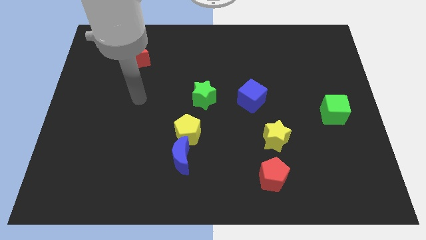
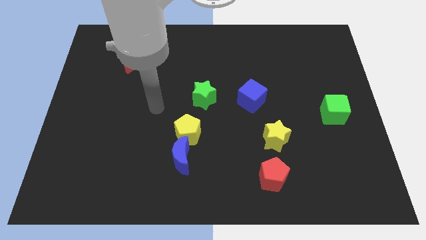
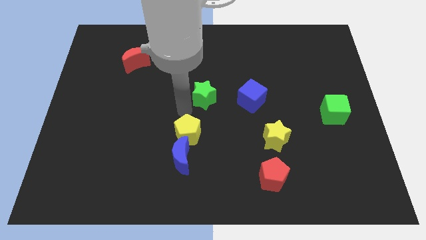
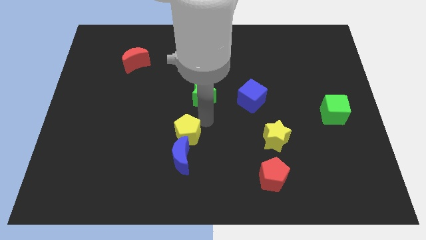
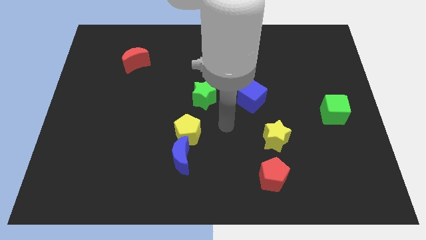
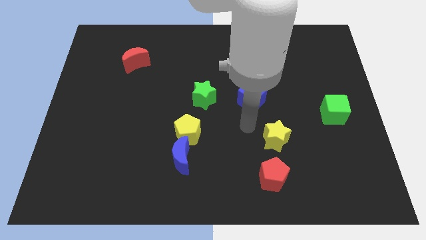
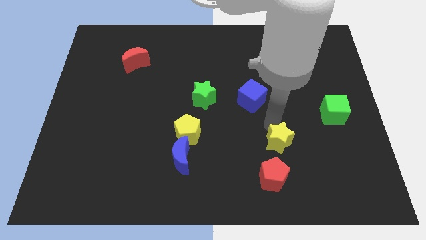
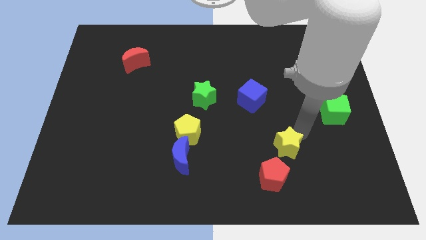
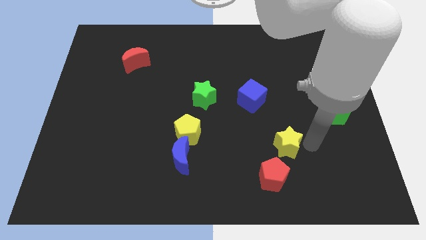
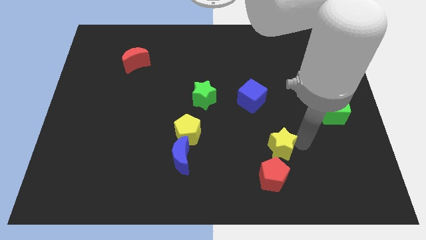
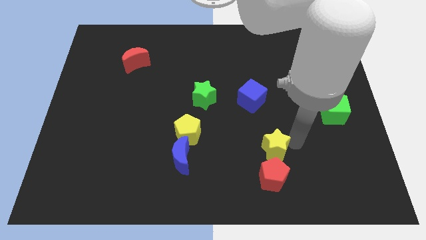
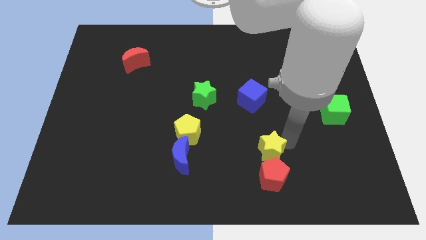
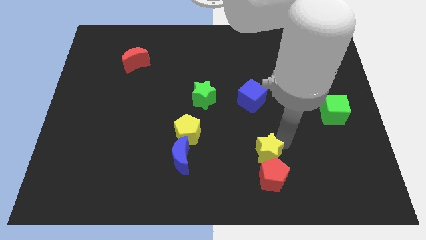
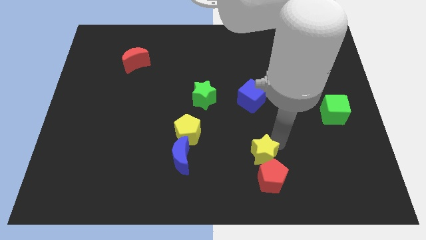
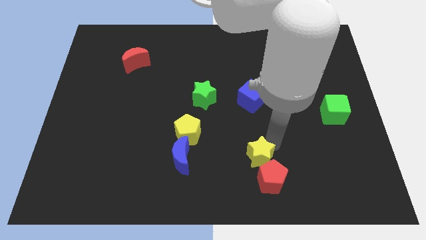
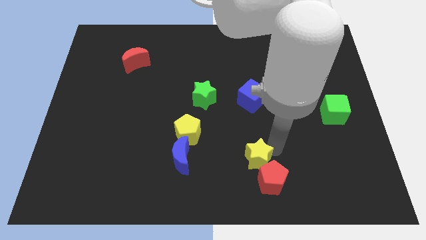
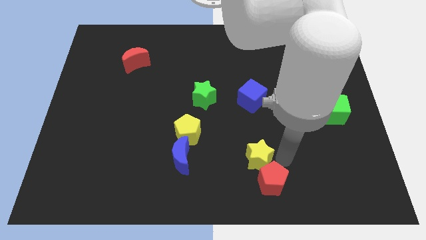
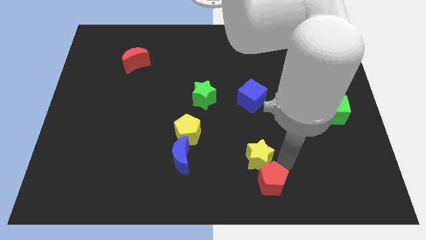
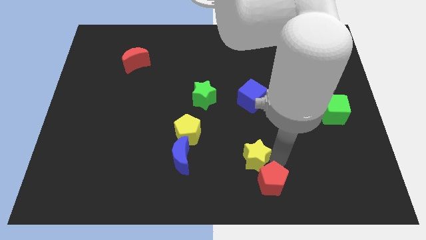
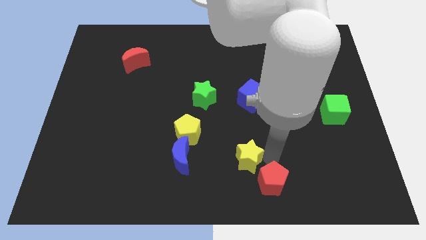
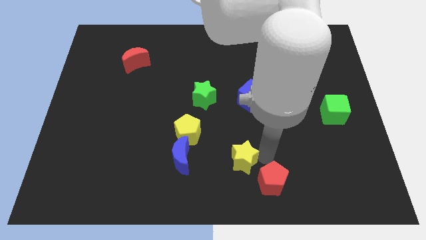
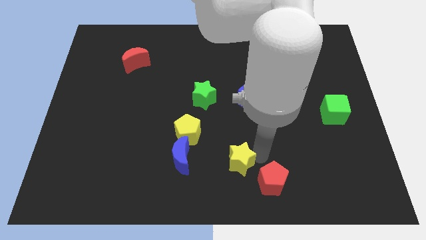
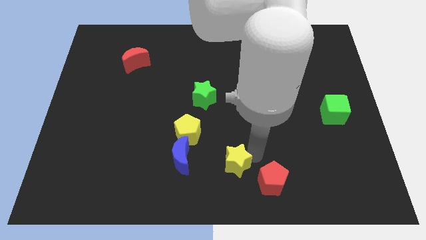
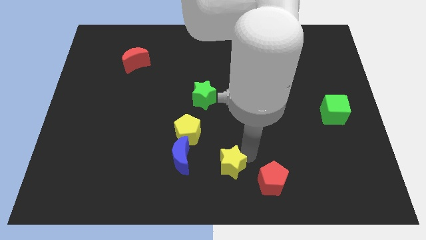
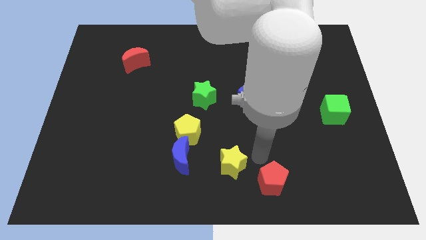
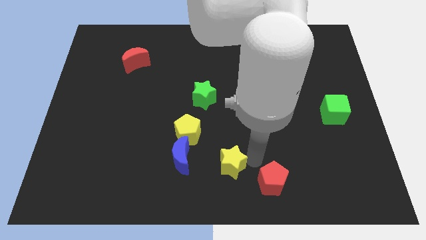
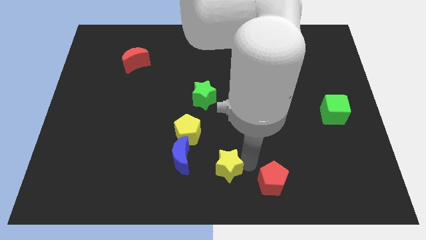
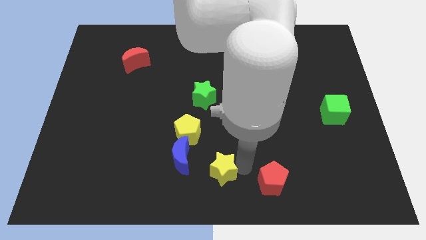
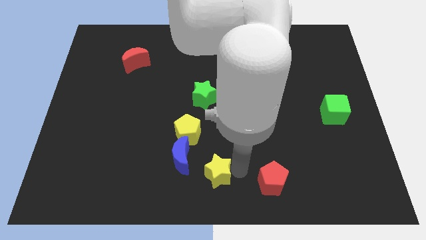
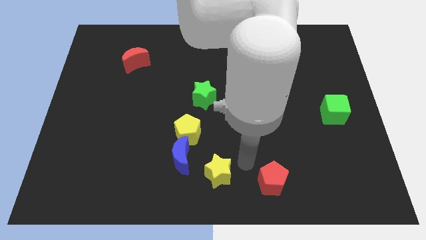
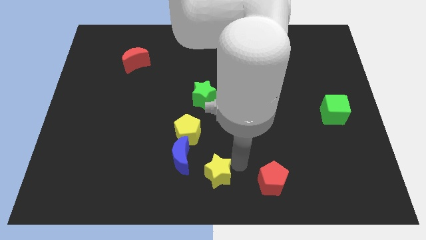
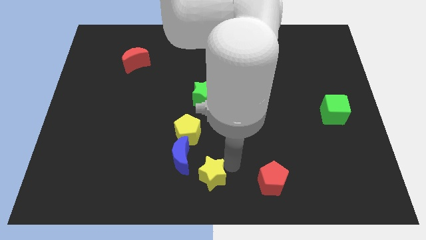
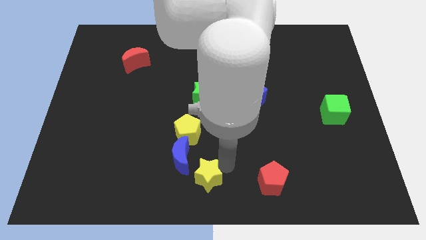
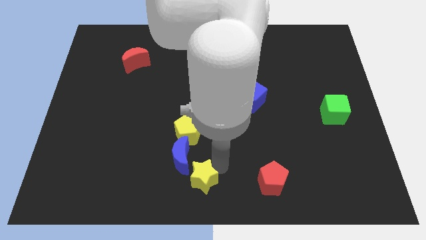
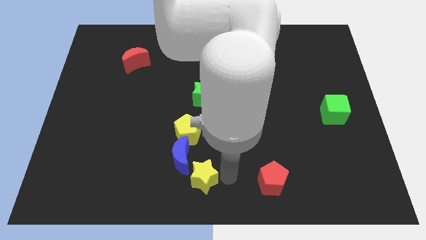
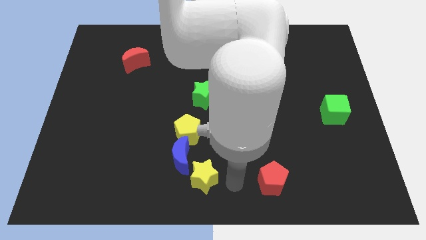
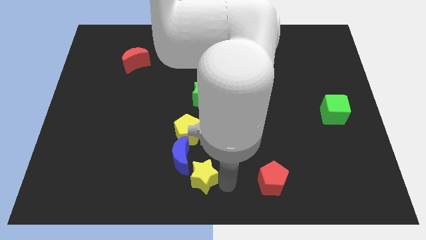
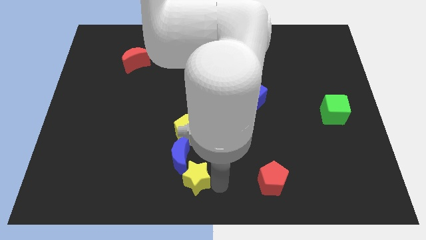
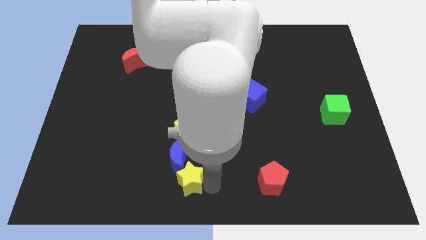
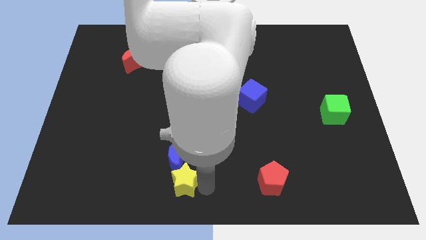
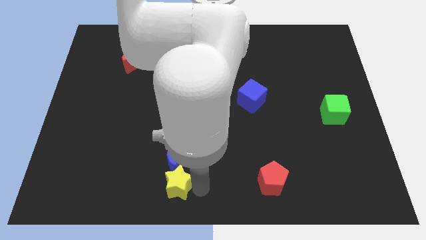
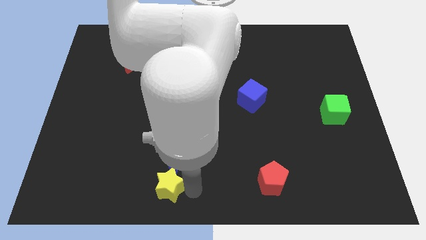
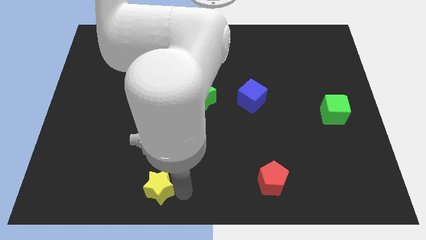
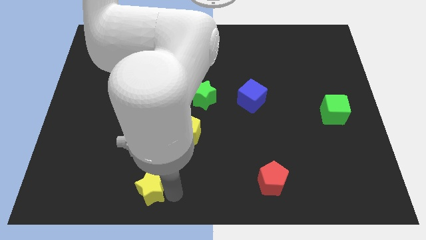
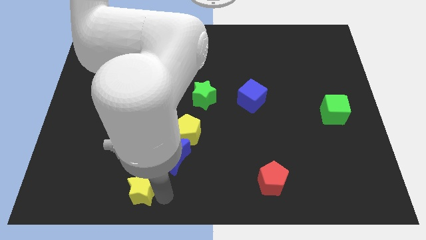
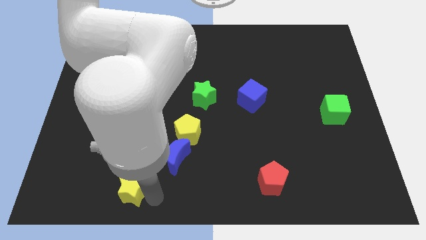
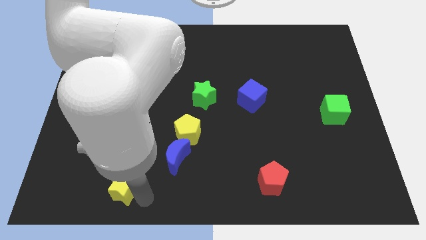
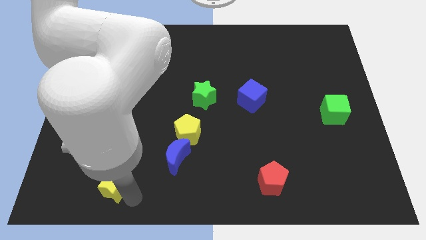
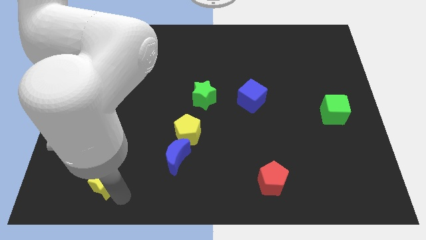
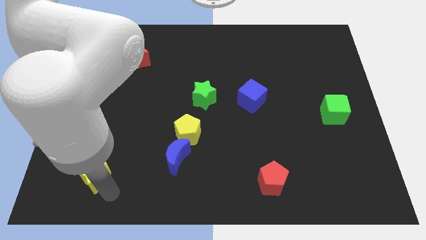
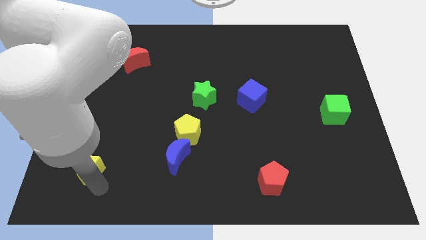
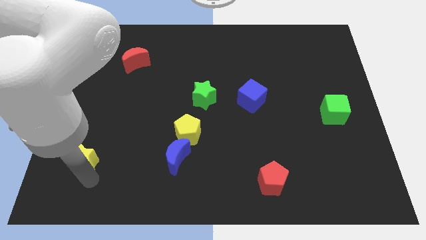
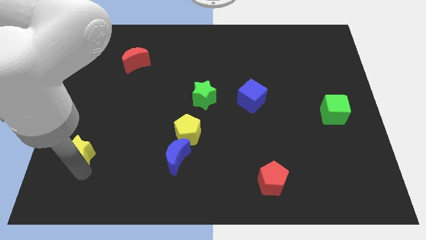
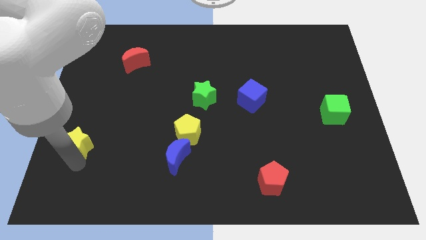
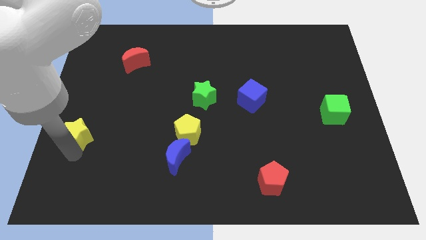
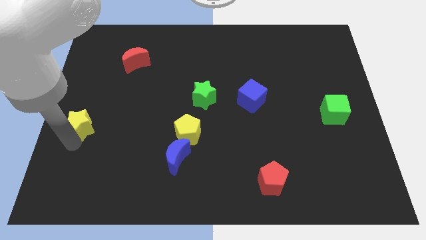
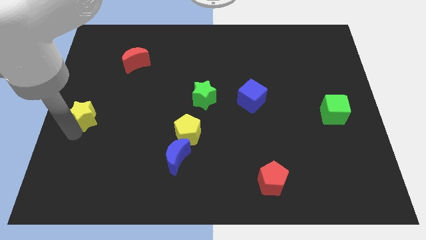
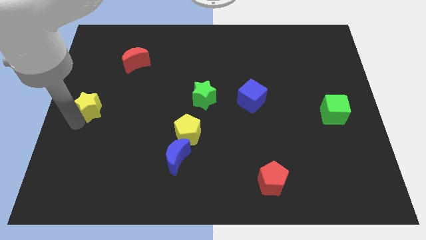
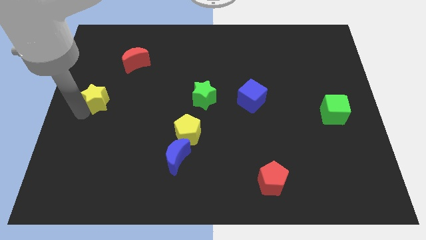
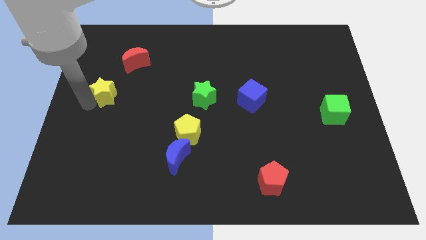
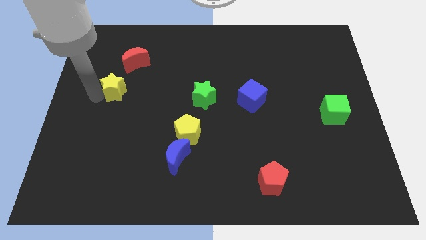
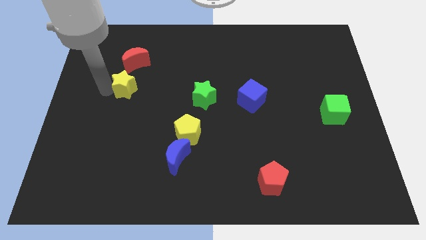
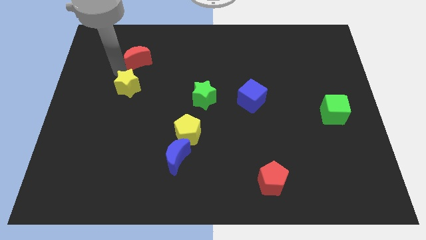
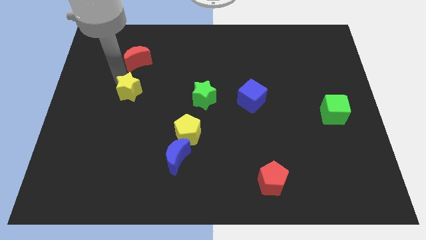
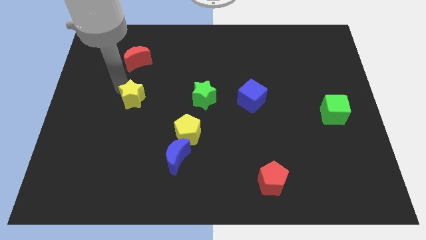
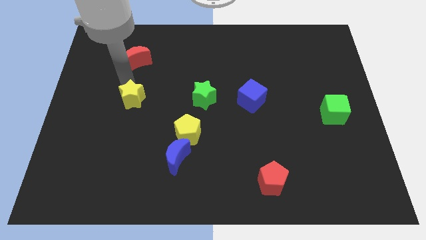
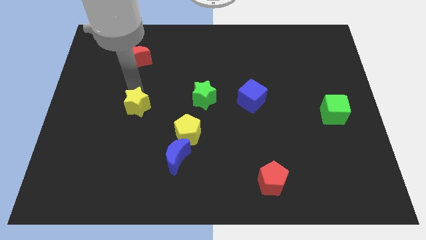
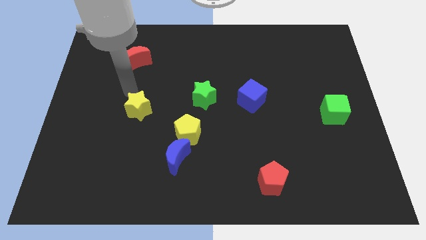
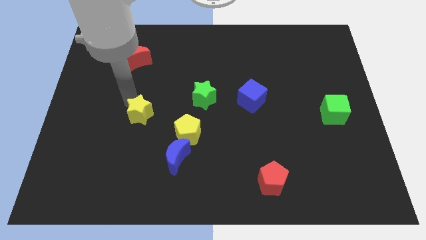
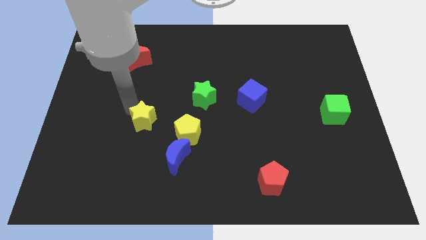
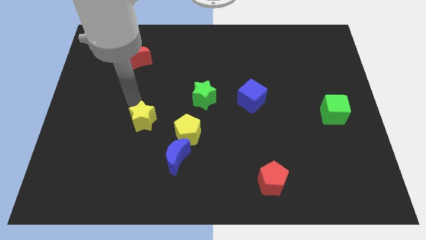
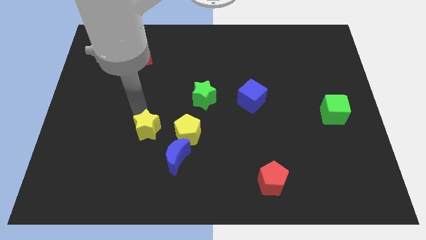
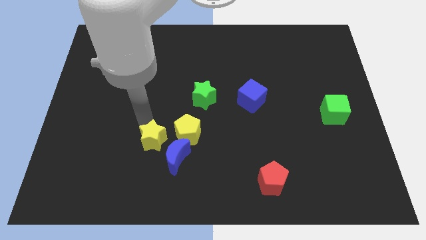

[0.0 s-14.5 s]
push the yellow star to the bottom left of the yellow pentagon
